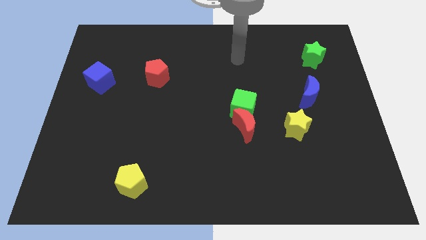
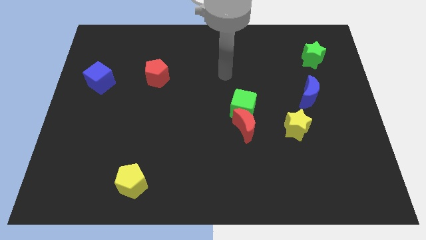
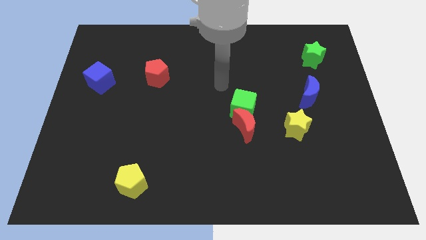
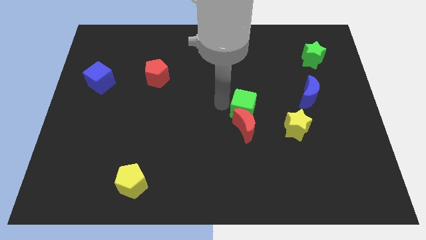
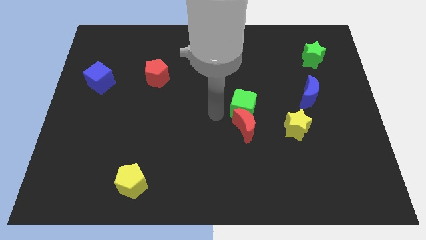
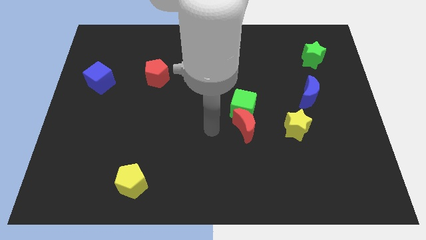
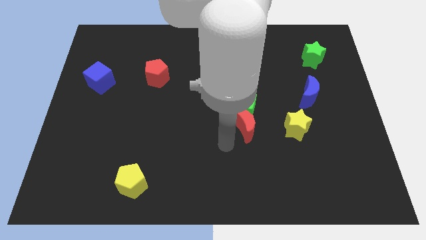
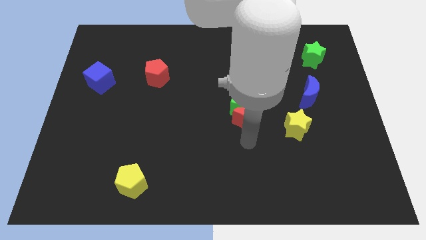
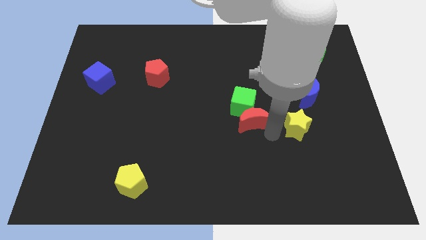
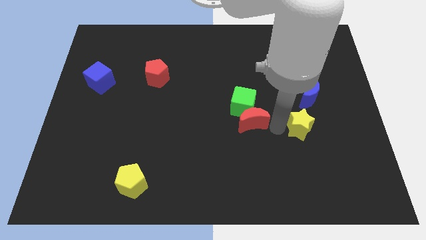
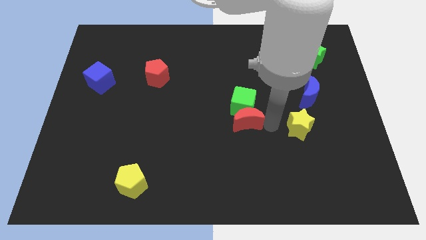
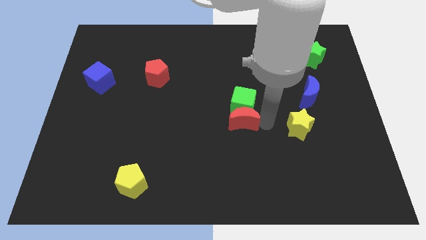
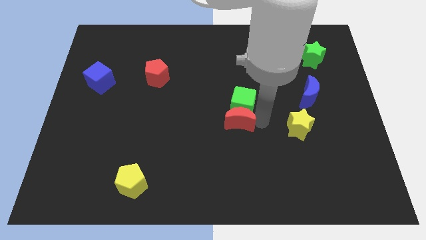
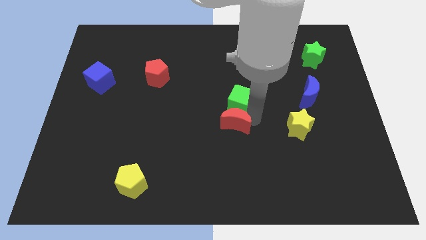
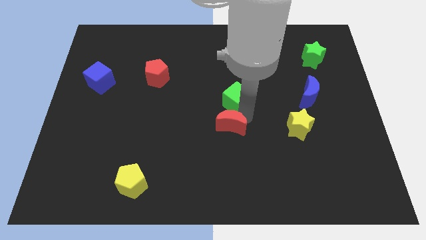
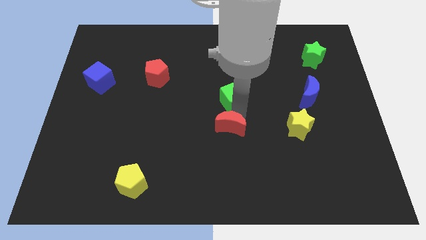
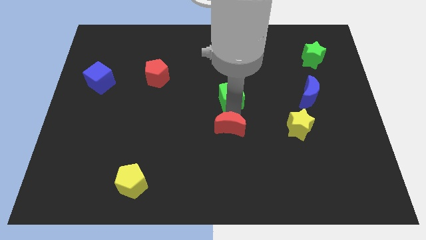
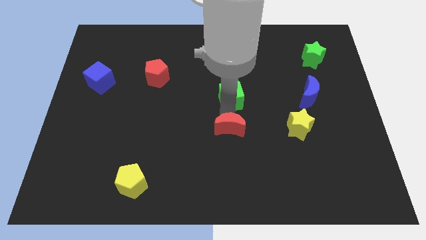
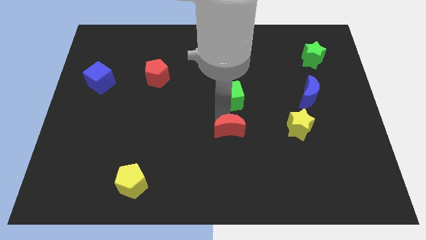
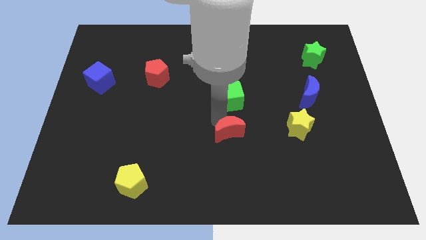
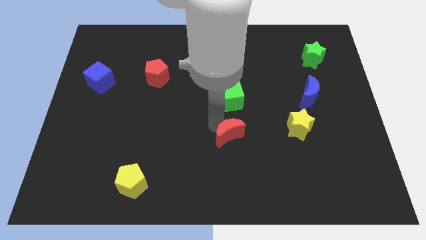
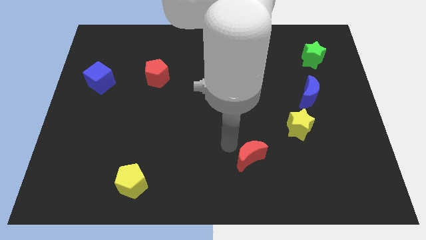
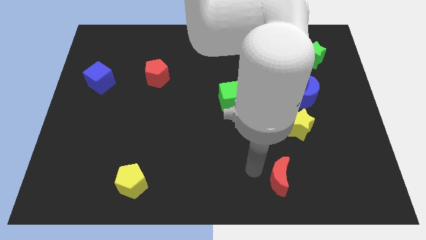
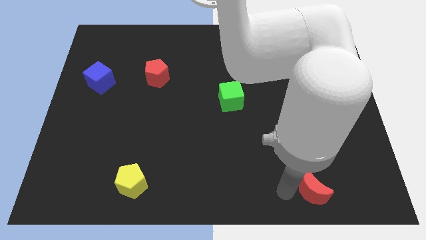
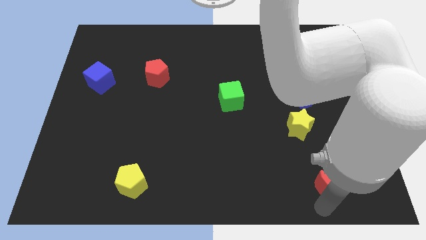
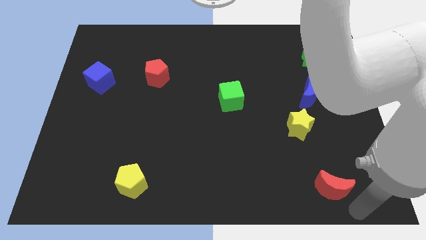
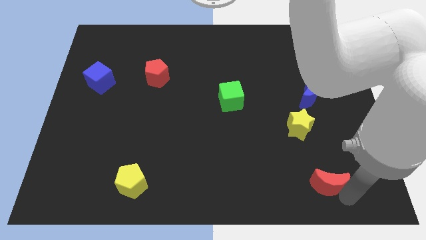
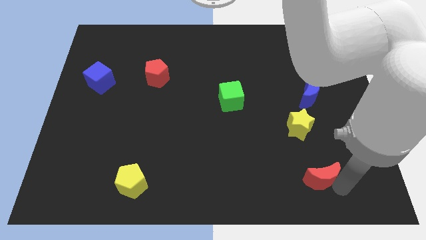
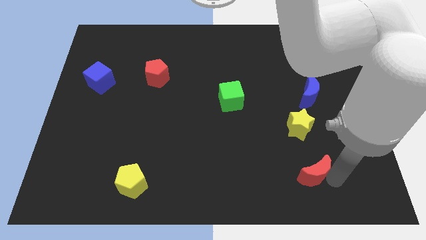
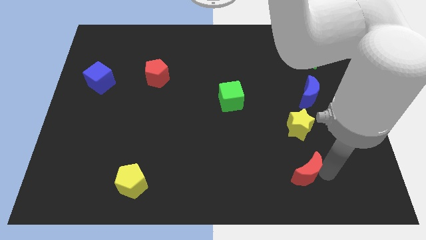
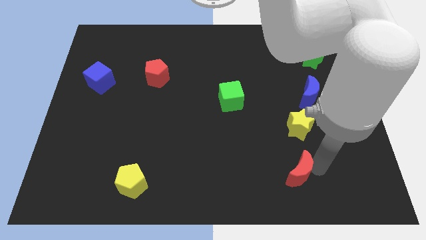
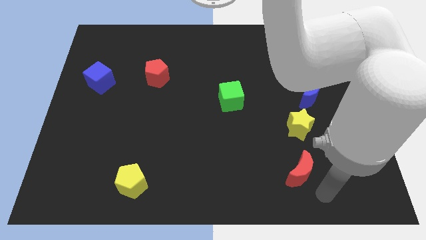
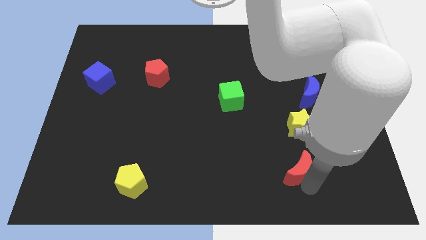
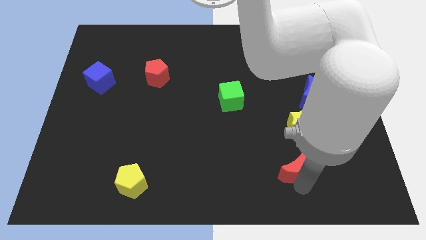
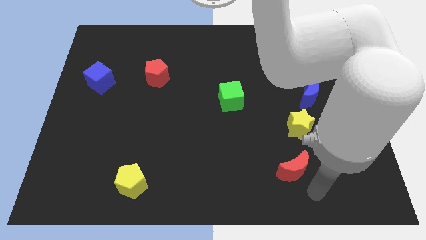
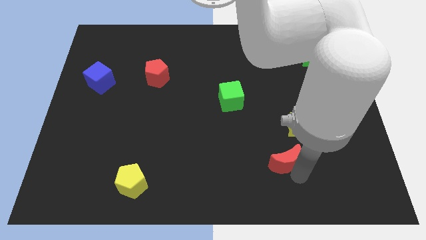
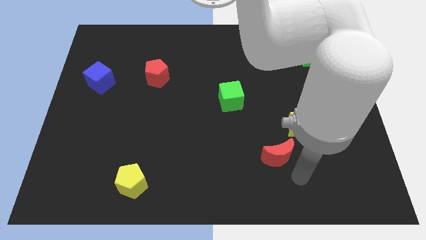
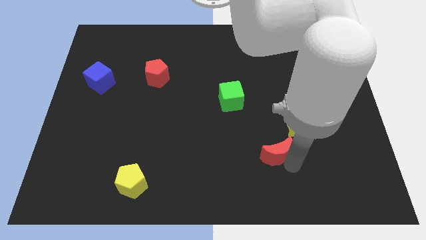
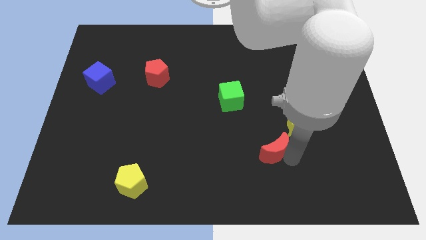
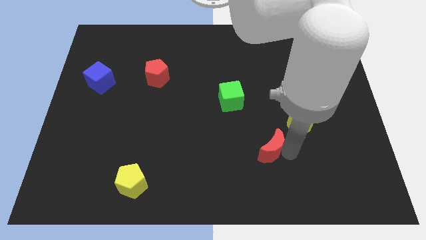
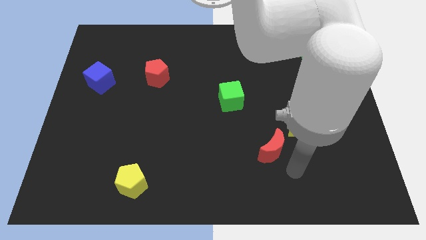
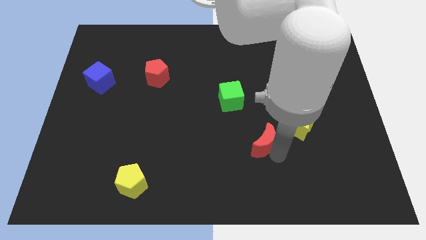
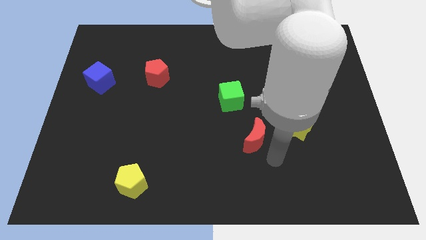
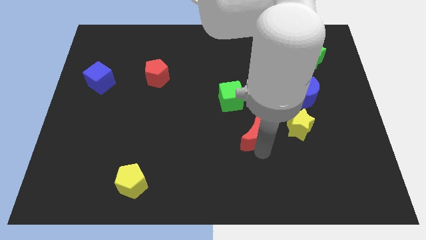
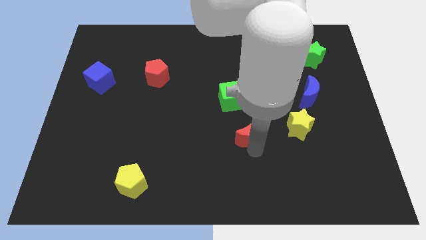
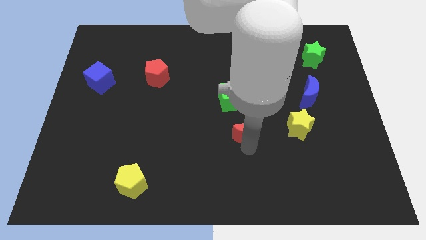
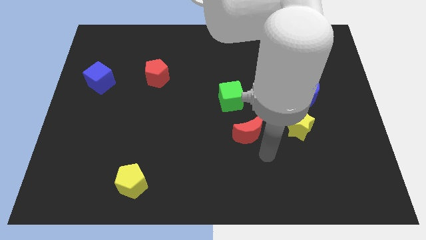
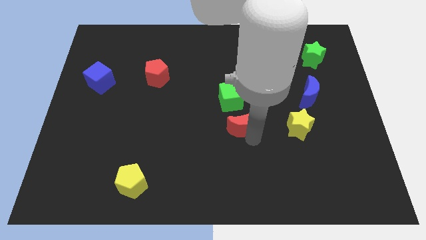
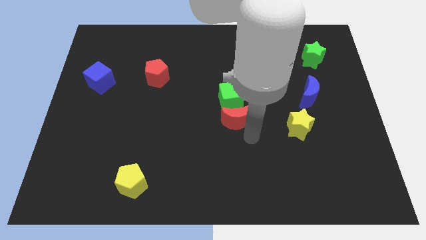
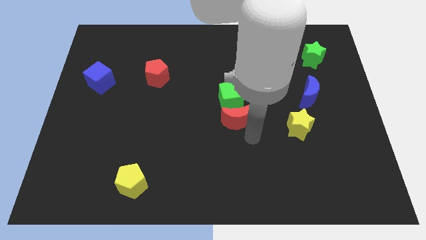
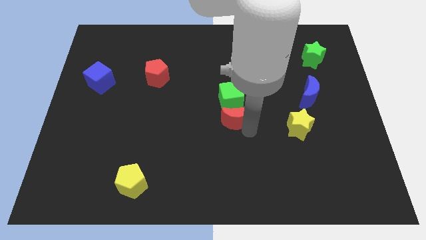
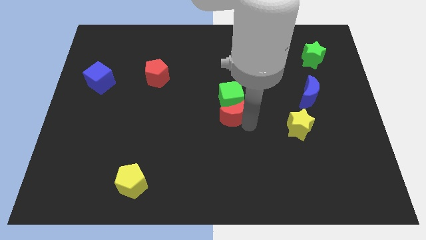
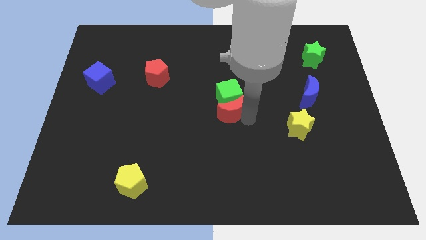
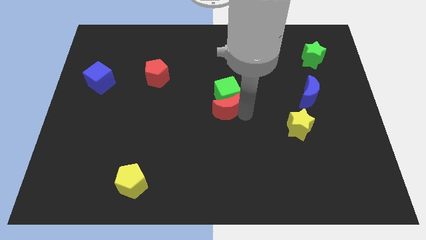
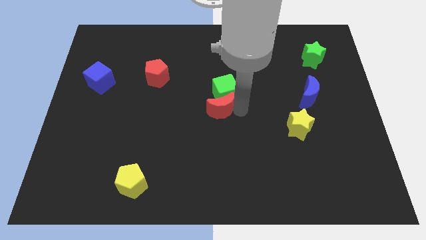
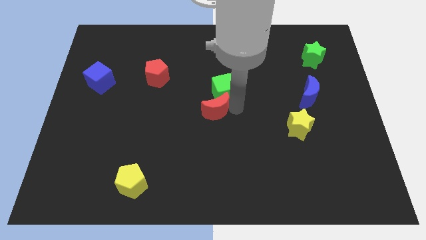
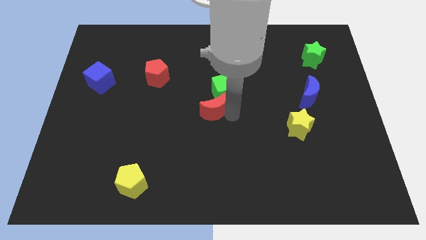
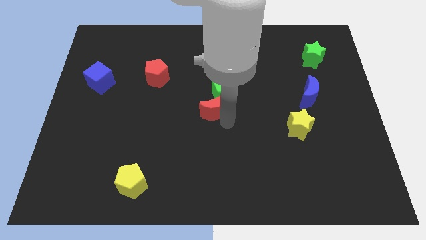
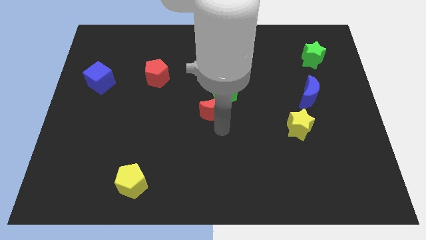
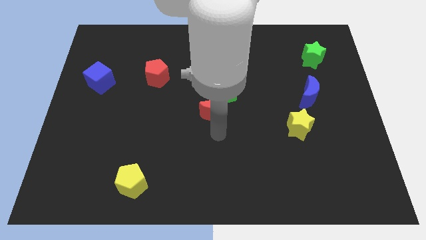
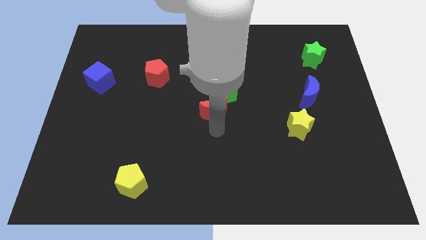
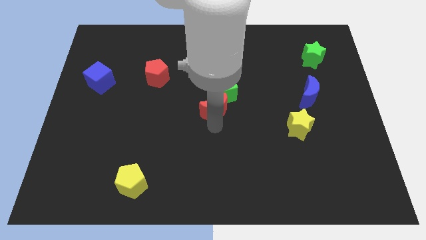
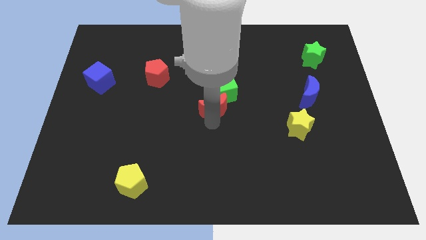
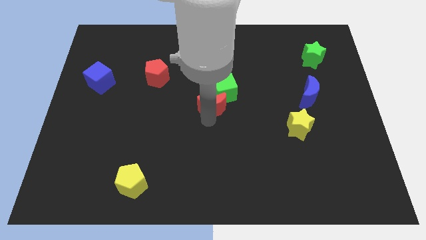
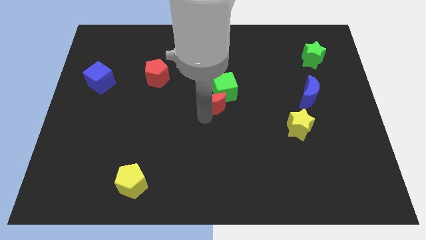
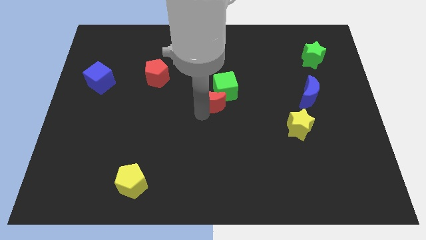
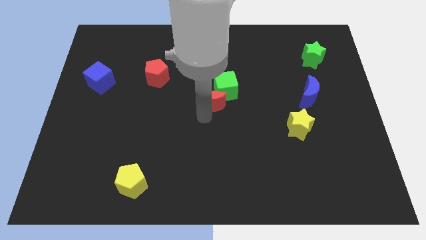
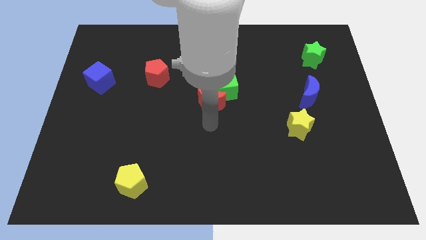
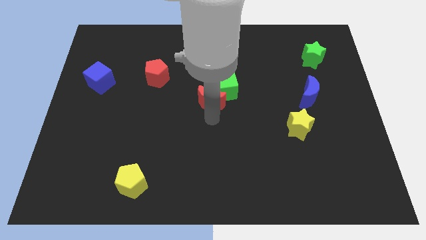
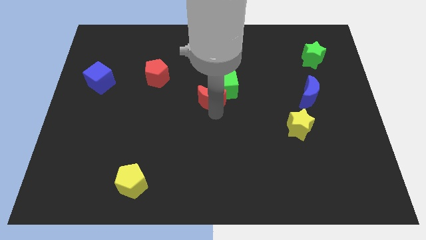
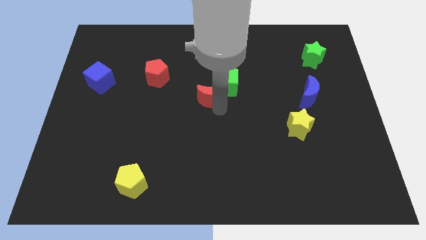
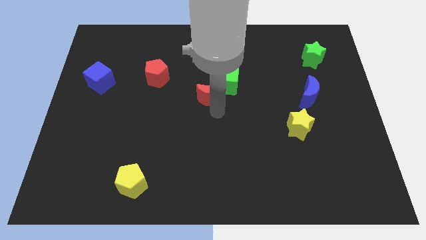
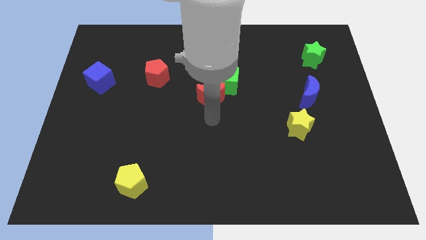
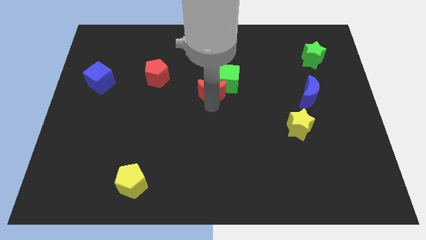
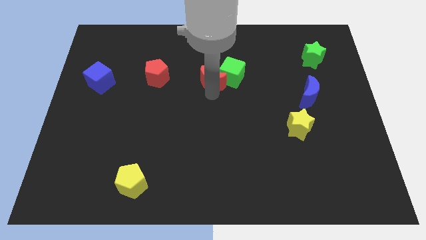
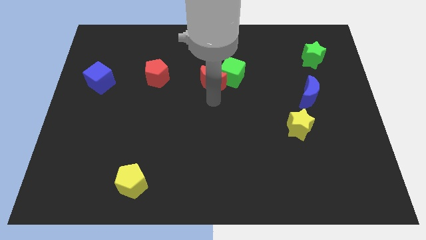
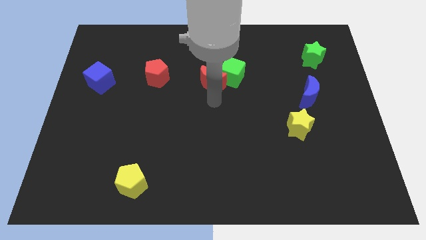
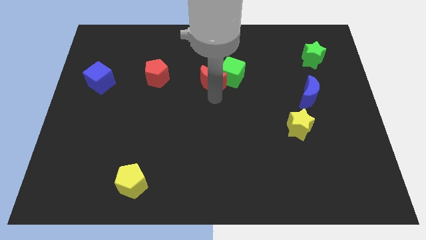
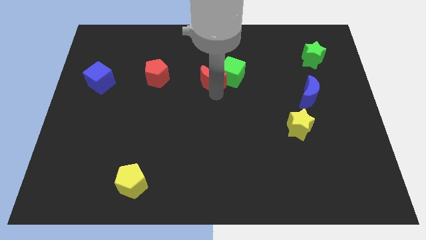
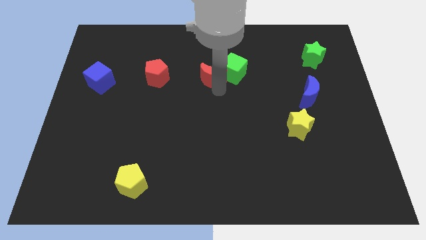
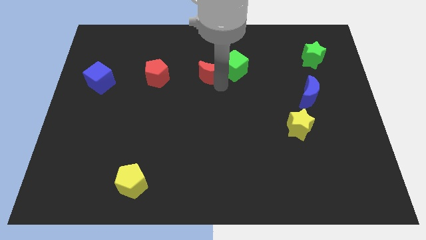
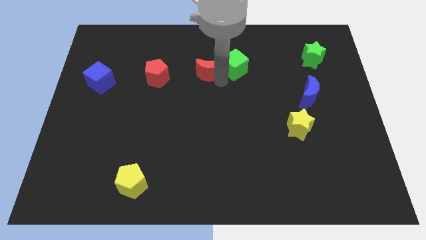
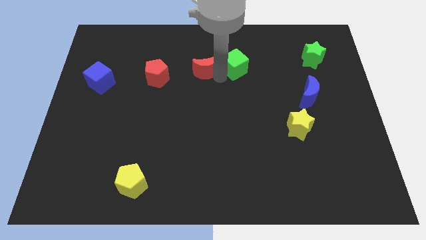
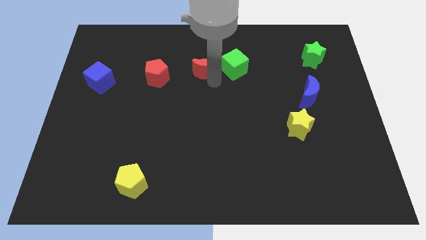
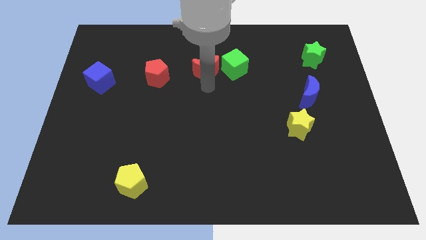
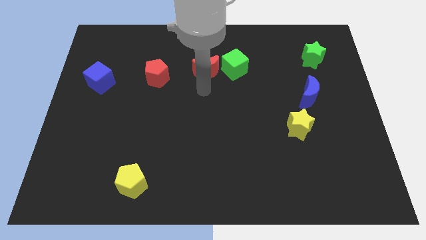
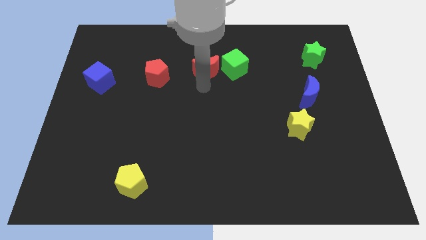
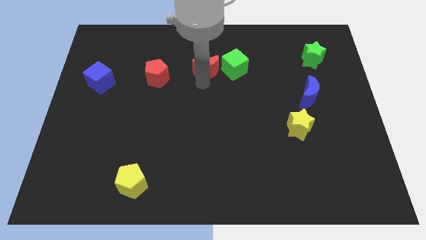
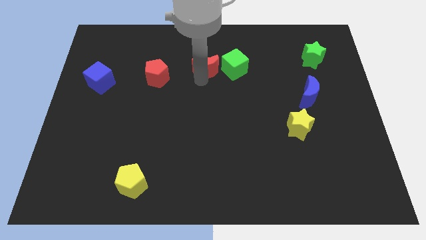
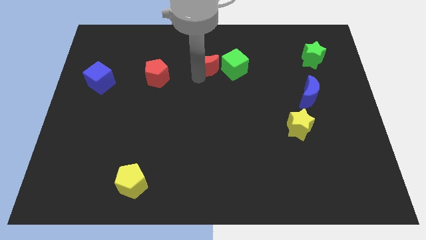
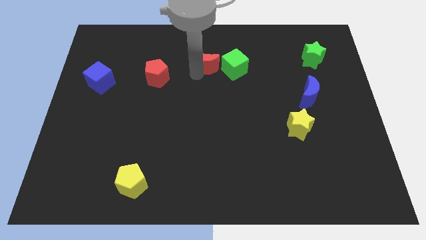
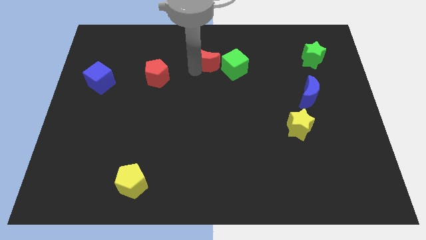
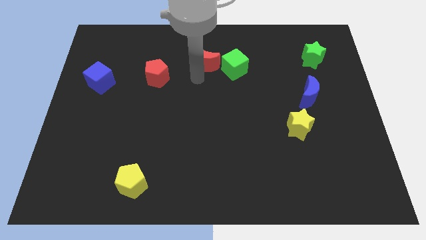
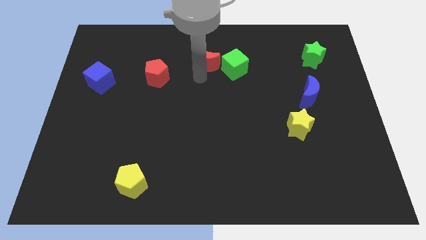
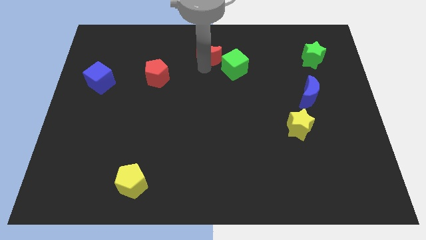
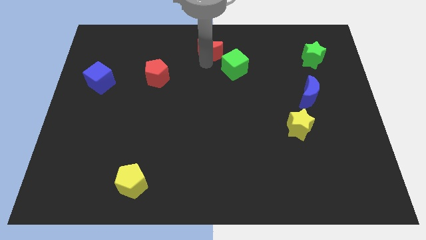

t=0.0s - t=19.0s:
put the red moon to the top
